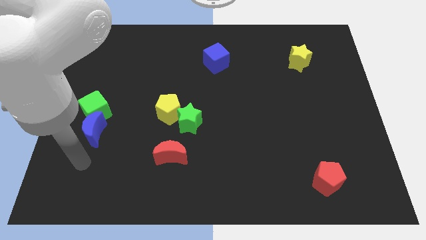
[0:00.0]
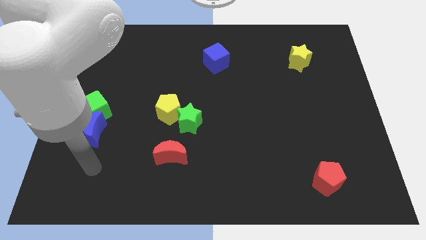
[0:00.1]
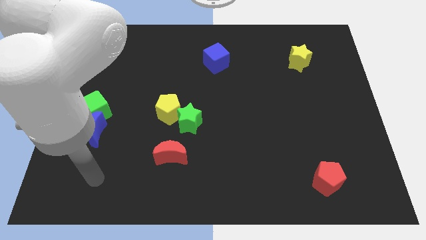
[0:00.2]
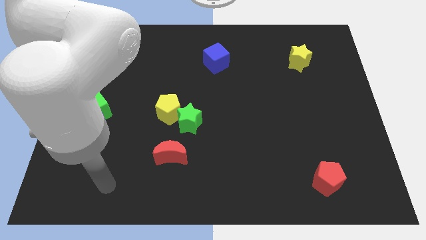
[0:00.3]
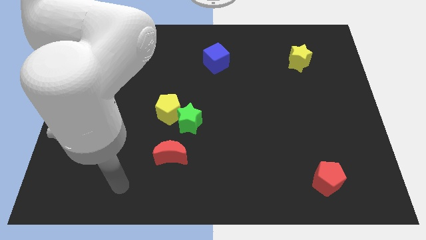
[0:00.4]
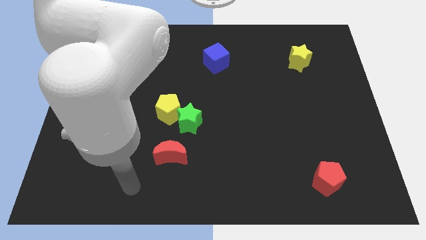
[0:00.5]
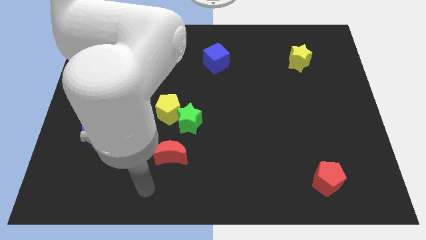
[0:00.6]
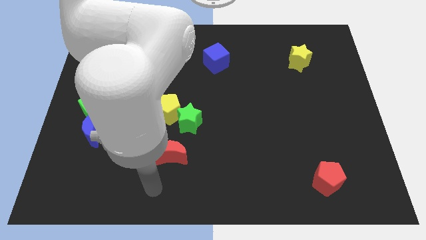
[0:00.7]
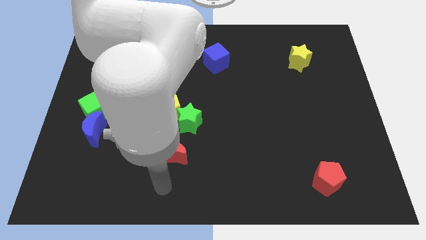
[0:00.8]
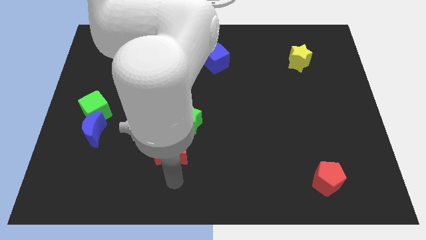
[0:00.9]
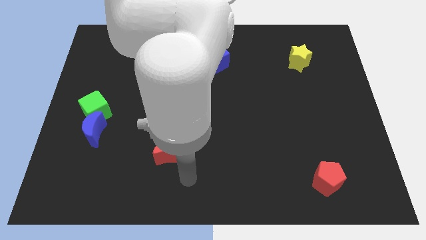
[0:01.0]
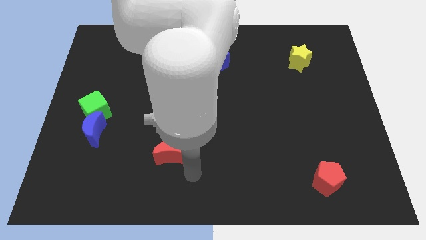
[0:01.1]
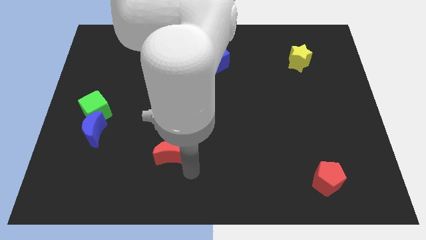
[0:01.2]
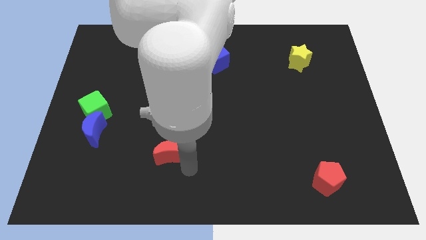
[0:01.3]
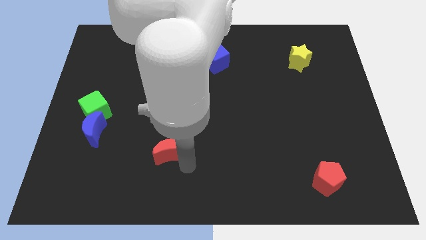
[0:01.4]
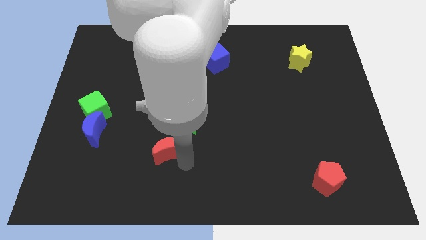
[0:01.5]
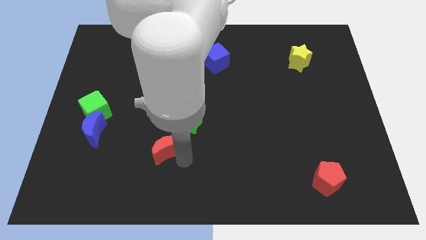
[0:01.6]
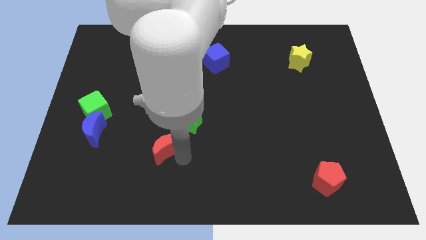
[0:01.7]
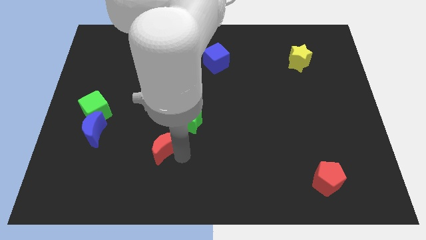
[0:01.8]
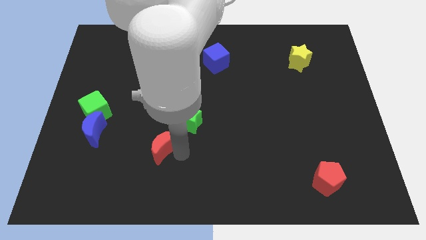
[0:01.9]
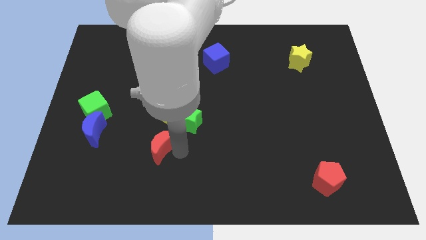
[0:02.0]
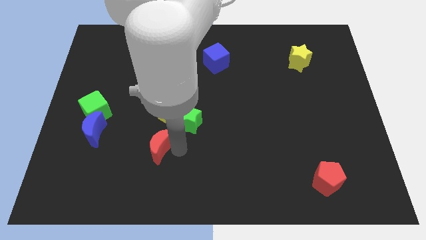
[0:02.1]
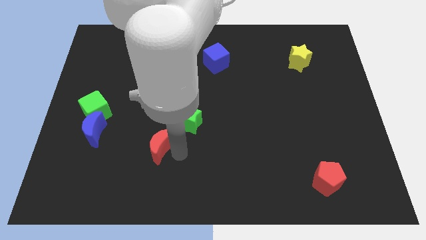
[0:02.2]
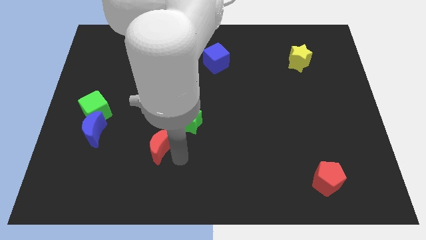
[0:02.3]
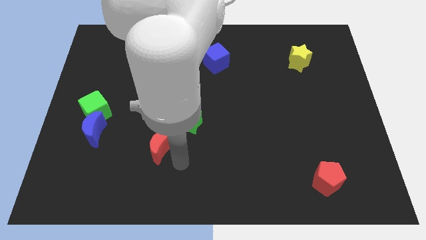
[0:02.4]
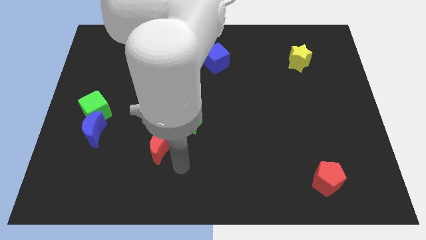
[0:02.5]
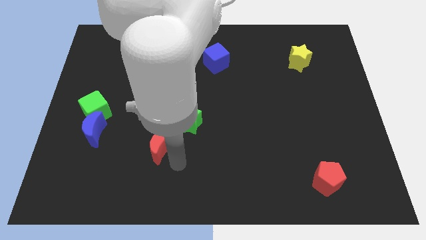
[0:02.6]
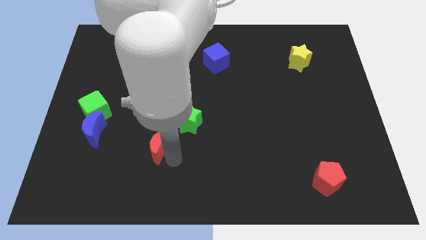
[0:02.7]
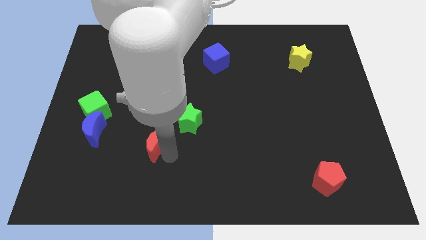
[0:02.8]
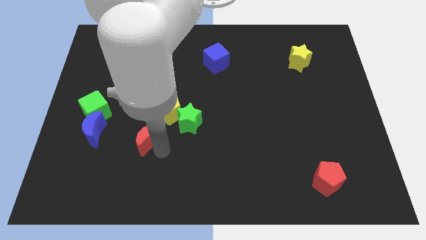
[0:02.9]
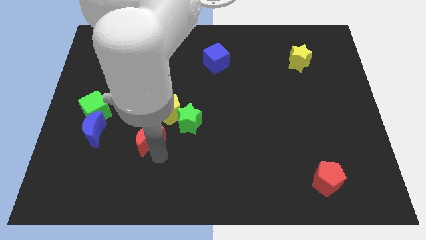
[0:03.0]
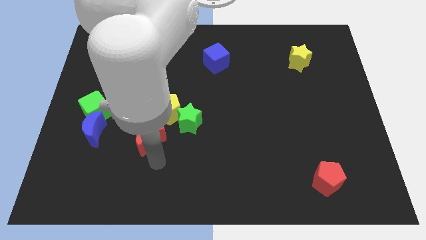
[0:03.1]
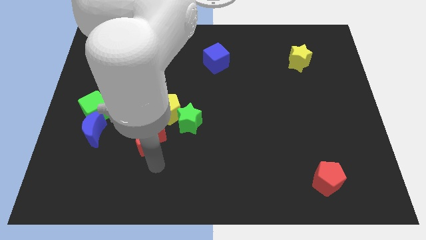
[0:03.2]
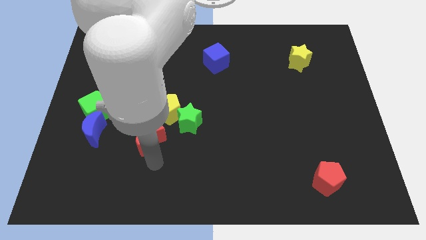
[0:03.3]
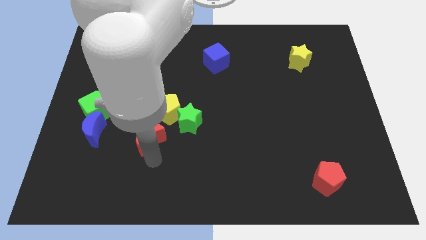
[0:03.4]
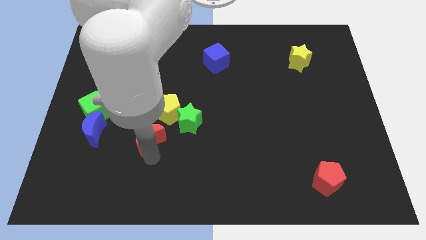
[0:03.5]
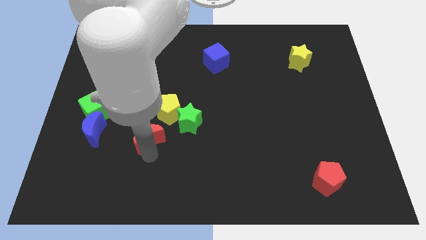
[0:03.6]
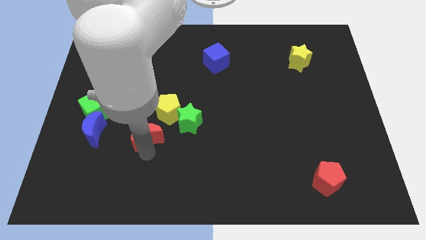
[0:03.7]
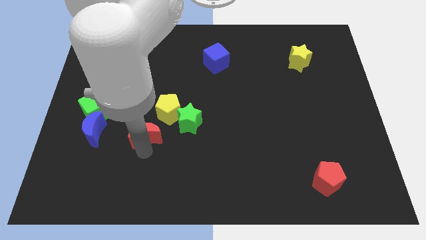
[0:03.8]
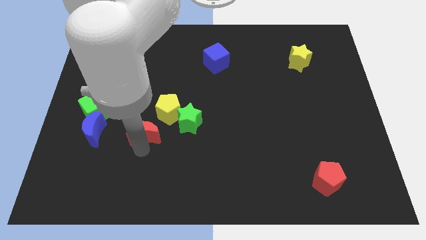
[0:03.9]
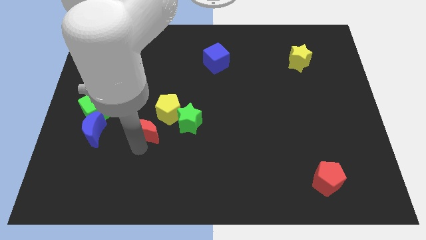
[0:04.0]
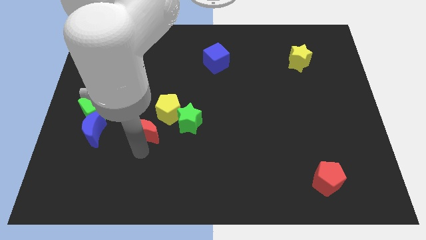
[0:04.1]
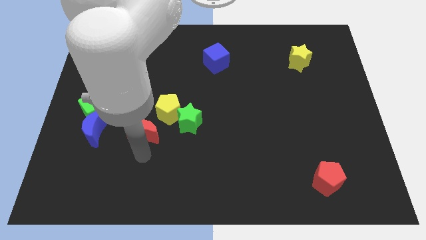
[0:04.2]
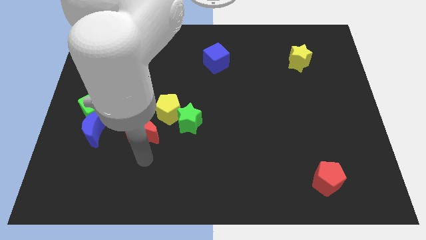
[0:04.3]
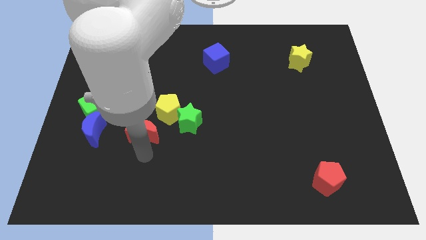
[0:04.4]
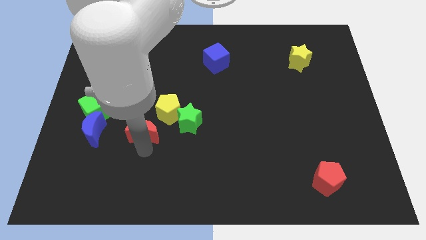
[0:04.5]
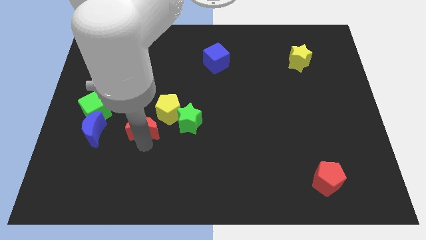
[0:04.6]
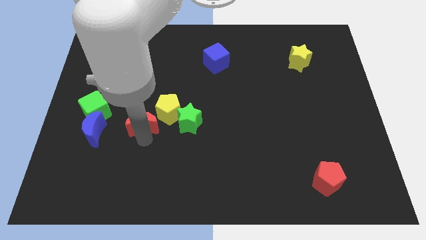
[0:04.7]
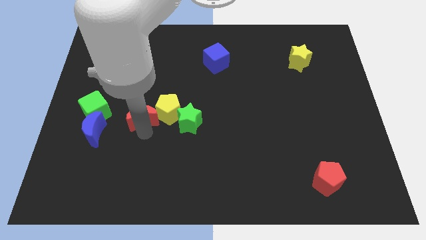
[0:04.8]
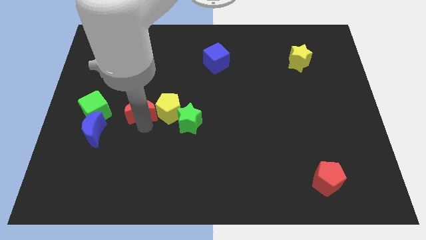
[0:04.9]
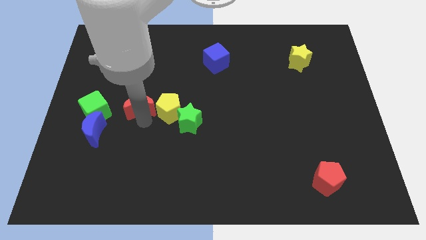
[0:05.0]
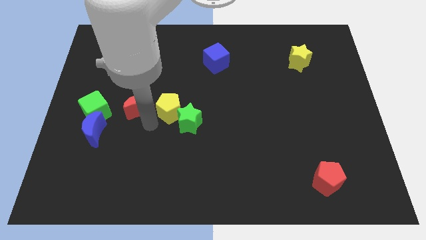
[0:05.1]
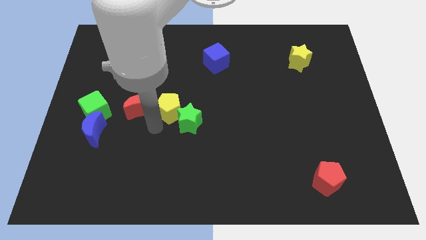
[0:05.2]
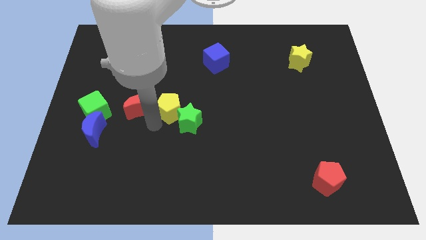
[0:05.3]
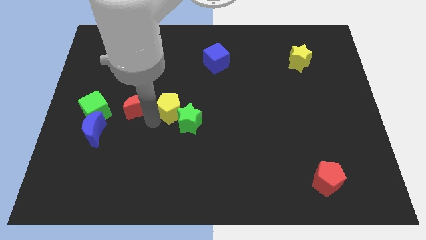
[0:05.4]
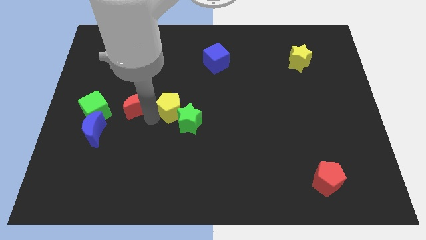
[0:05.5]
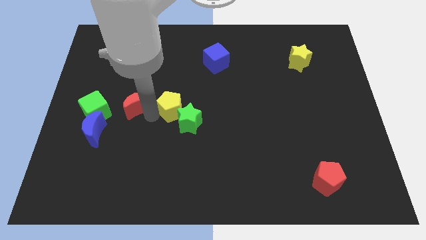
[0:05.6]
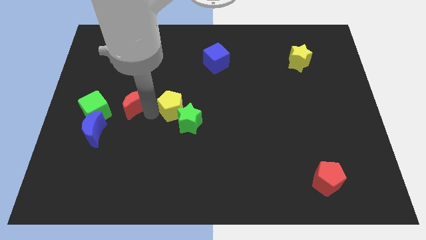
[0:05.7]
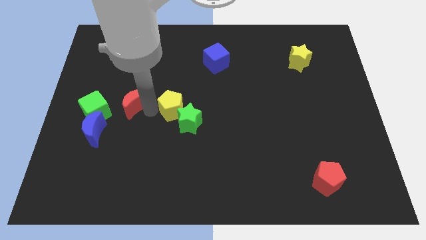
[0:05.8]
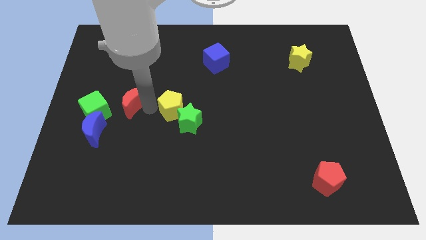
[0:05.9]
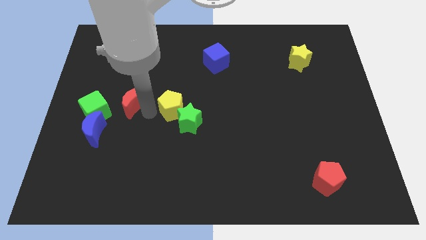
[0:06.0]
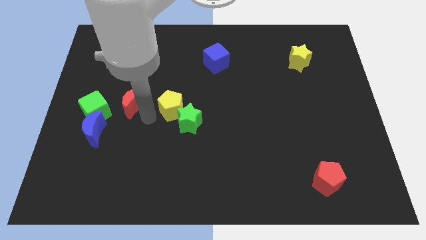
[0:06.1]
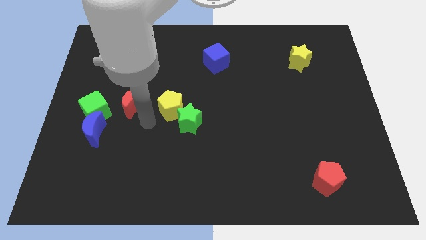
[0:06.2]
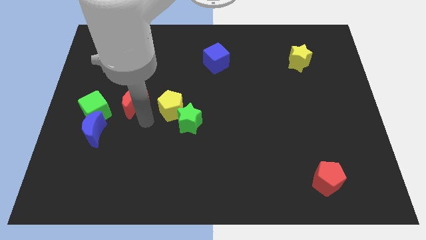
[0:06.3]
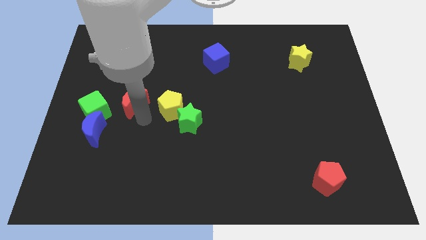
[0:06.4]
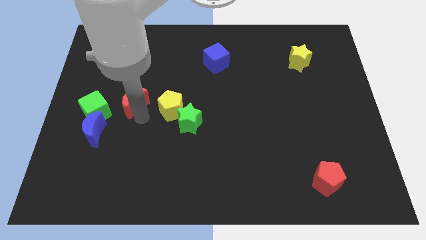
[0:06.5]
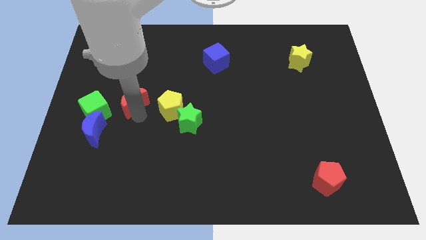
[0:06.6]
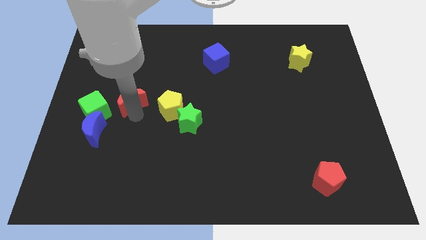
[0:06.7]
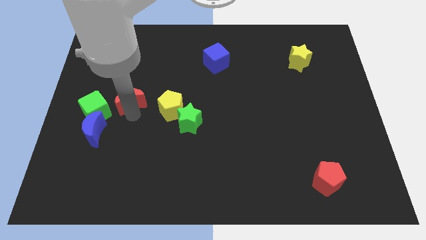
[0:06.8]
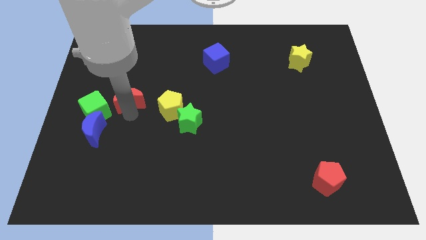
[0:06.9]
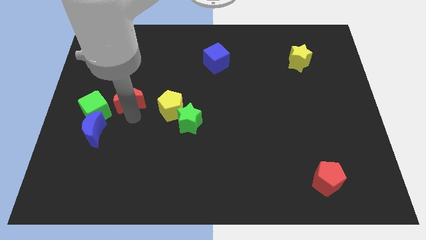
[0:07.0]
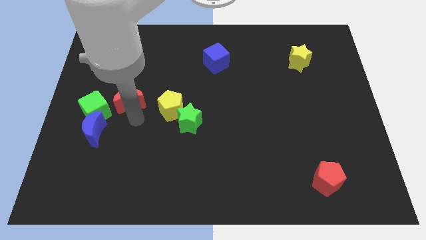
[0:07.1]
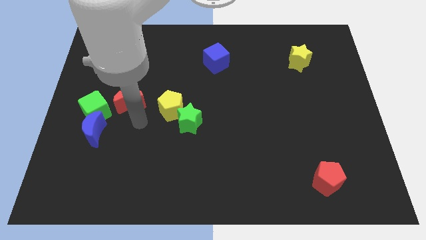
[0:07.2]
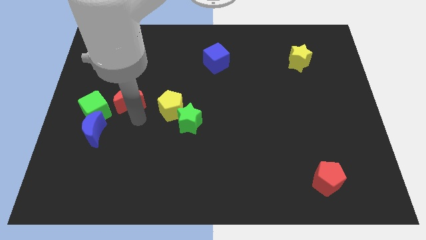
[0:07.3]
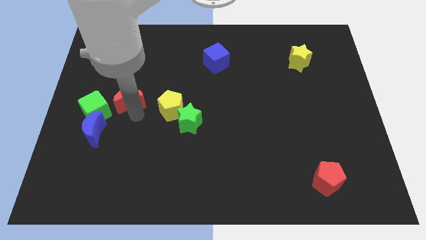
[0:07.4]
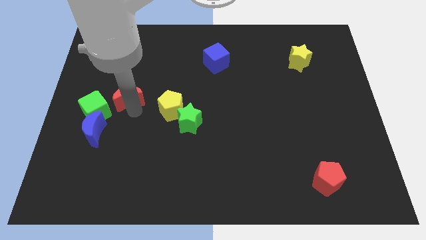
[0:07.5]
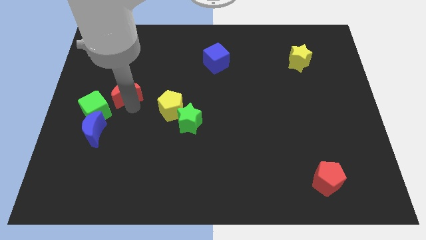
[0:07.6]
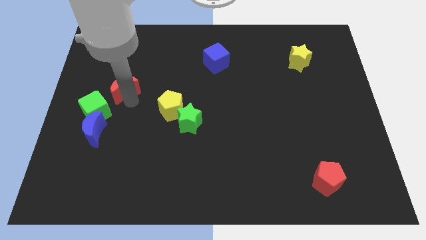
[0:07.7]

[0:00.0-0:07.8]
slide the red moon above the blue moon
